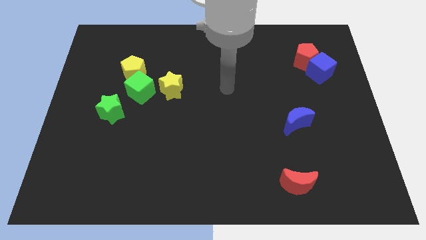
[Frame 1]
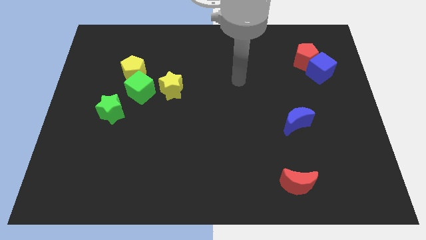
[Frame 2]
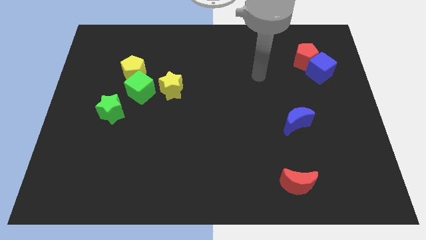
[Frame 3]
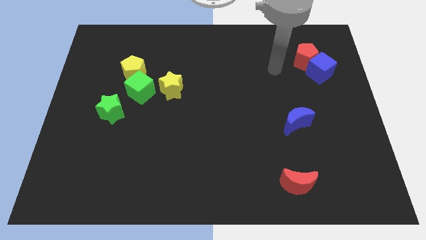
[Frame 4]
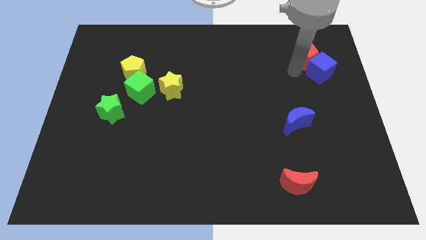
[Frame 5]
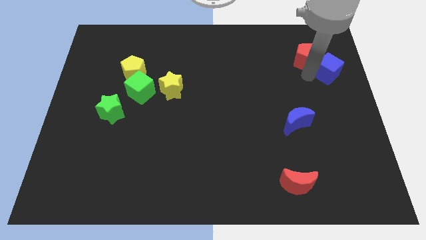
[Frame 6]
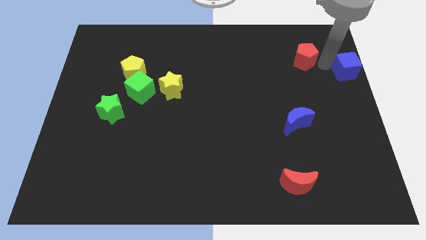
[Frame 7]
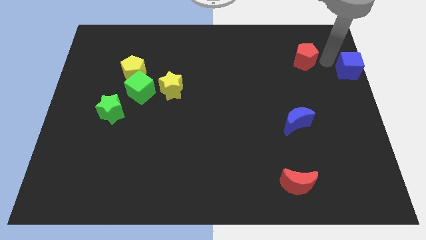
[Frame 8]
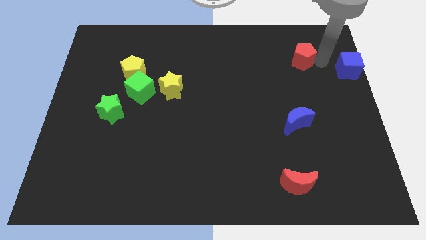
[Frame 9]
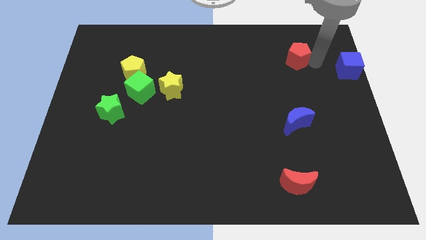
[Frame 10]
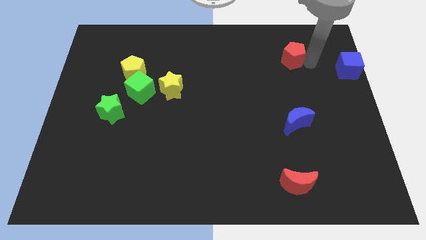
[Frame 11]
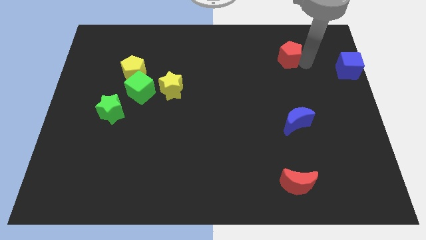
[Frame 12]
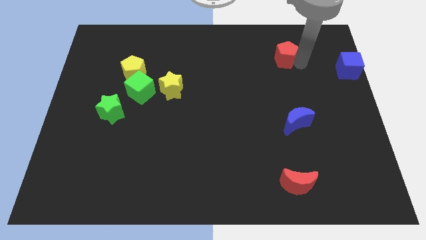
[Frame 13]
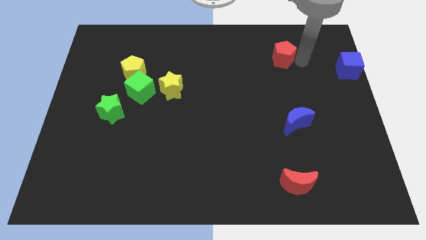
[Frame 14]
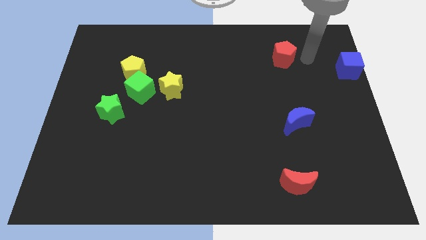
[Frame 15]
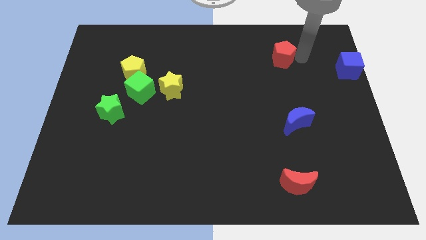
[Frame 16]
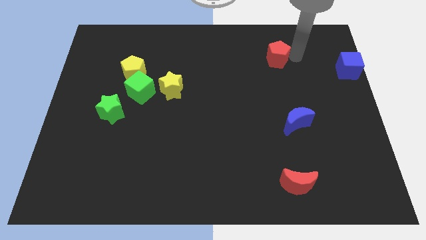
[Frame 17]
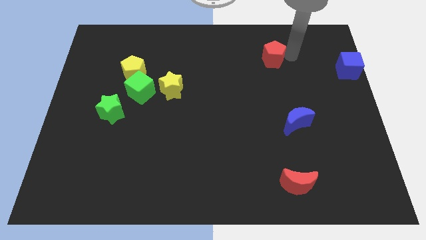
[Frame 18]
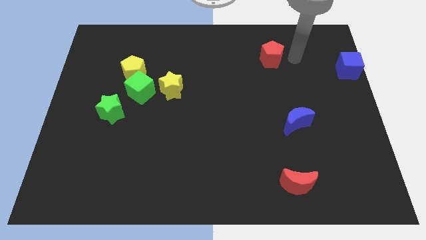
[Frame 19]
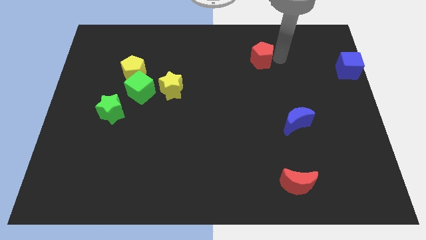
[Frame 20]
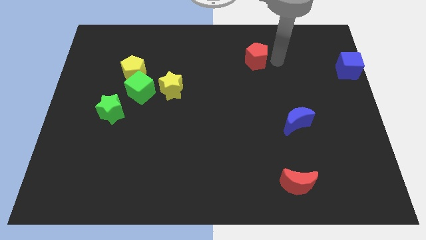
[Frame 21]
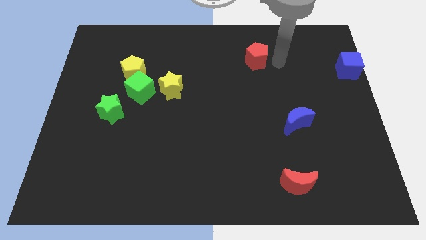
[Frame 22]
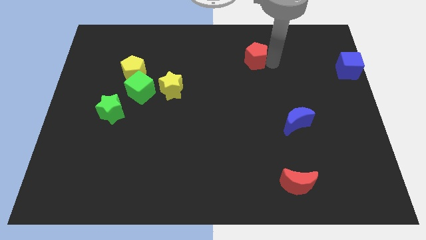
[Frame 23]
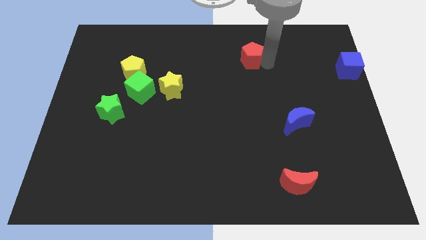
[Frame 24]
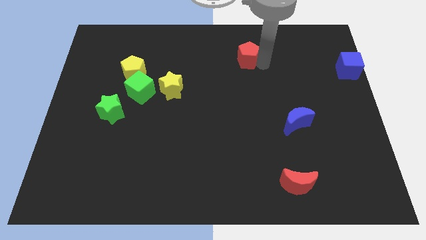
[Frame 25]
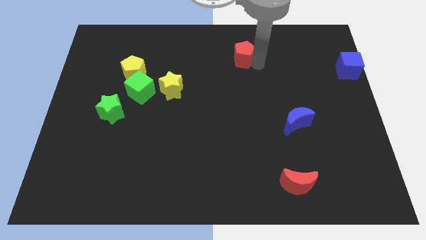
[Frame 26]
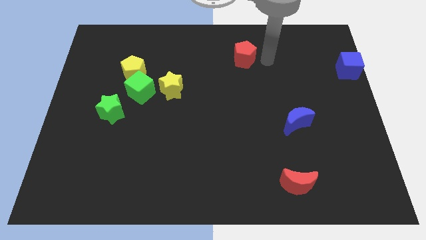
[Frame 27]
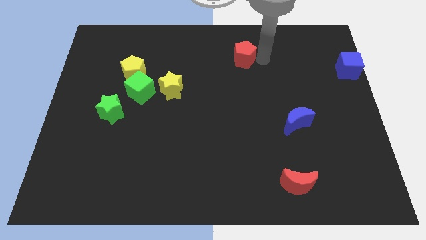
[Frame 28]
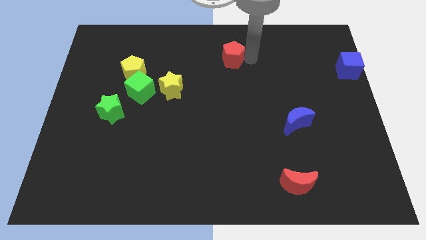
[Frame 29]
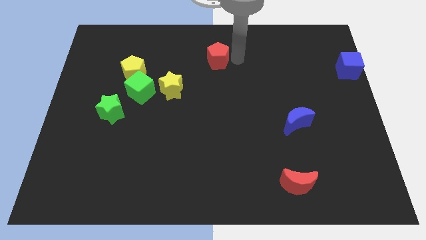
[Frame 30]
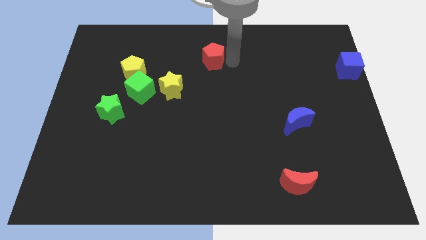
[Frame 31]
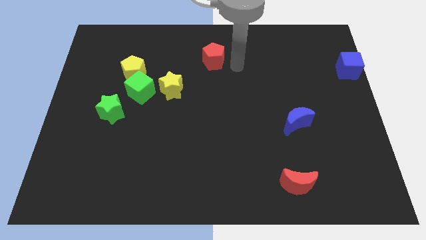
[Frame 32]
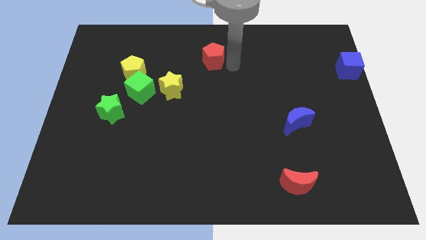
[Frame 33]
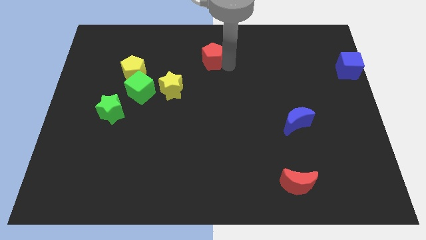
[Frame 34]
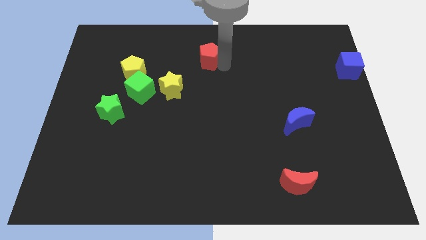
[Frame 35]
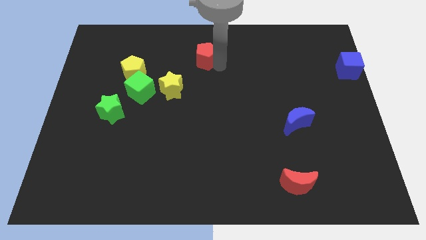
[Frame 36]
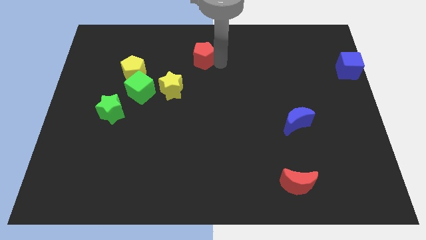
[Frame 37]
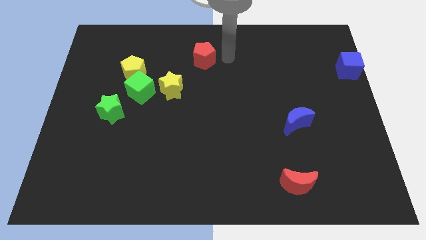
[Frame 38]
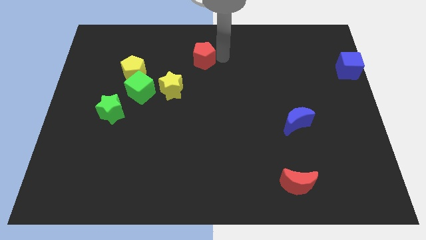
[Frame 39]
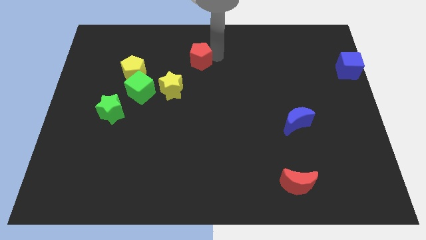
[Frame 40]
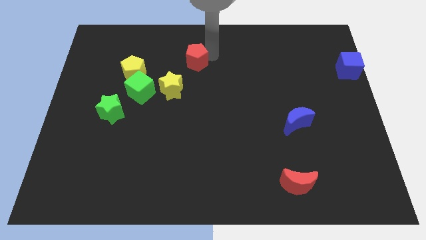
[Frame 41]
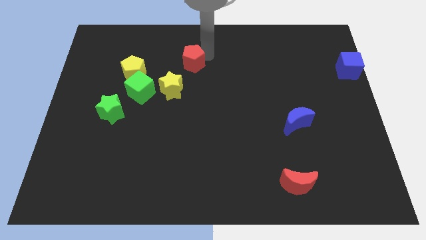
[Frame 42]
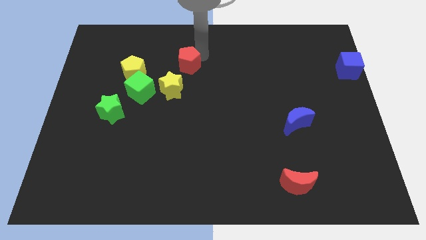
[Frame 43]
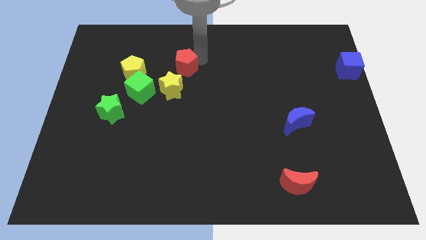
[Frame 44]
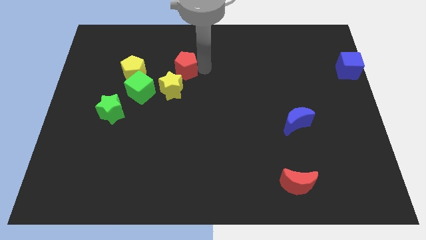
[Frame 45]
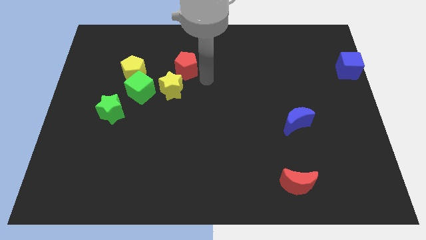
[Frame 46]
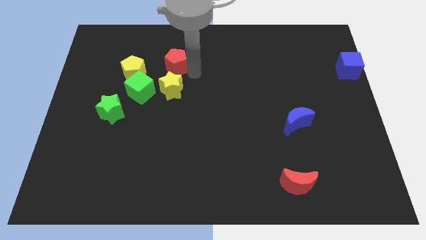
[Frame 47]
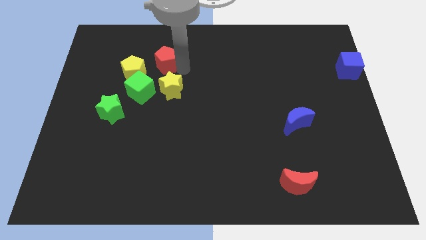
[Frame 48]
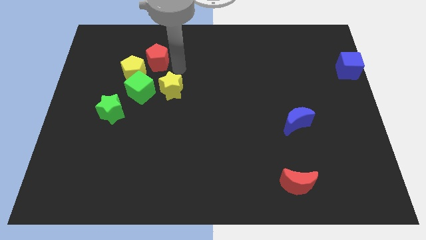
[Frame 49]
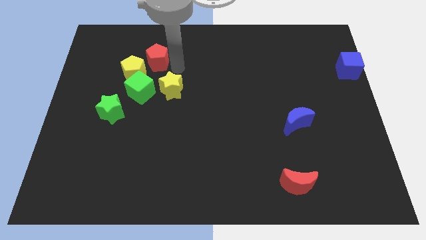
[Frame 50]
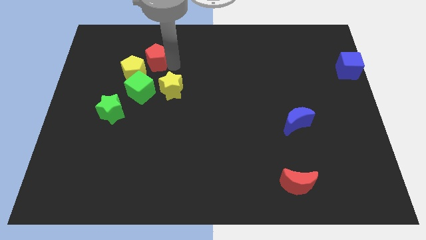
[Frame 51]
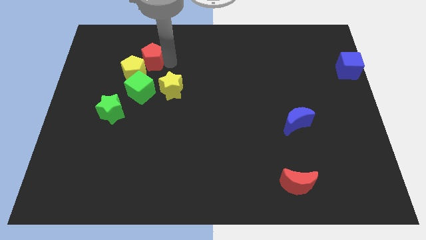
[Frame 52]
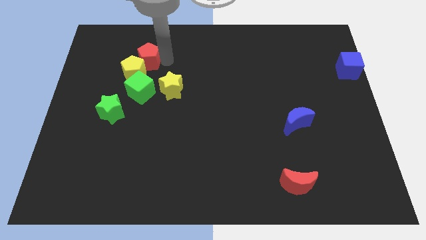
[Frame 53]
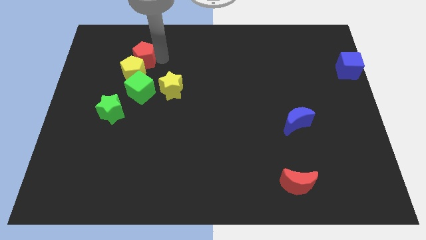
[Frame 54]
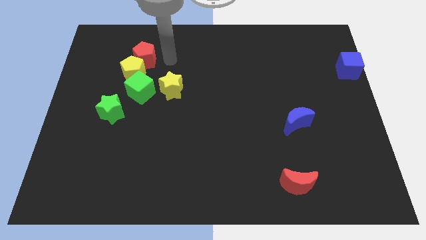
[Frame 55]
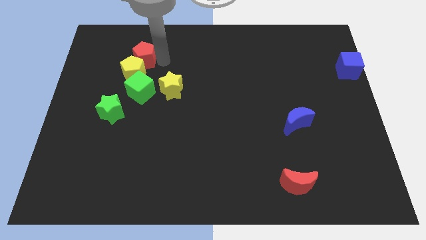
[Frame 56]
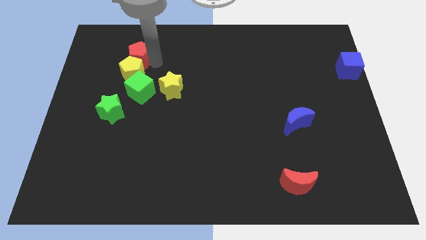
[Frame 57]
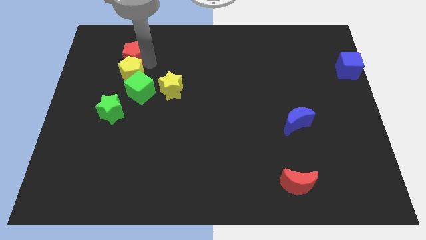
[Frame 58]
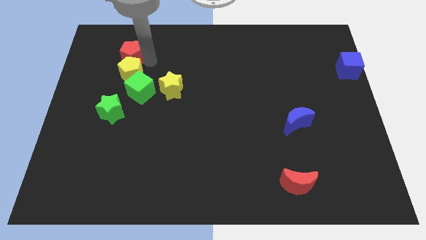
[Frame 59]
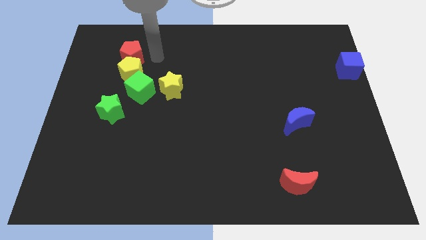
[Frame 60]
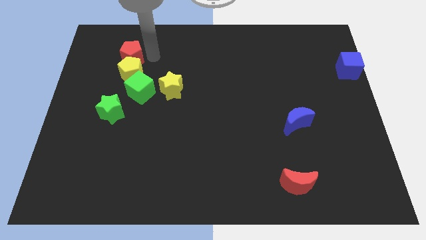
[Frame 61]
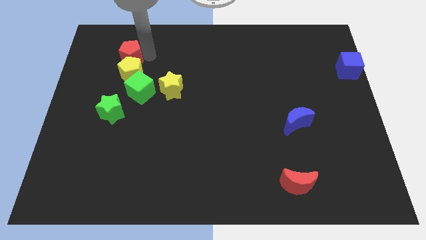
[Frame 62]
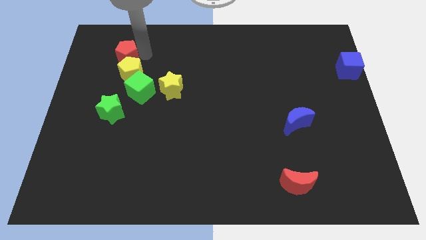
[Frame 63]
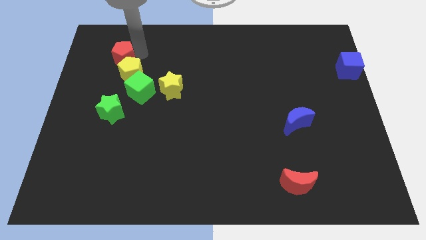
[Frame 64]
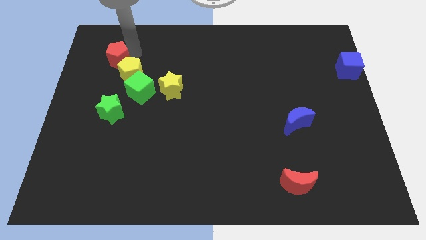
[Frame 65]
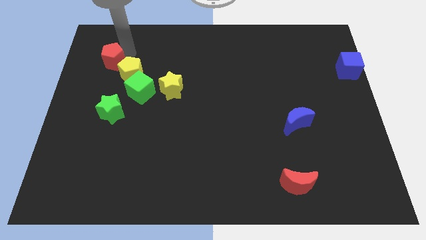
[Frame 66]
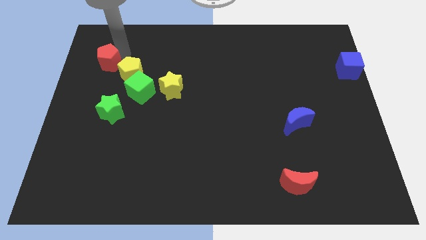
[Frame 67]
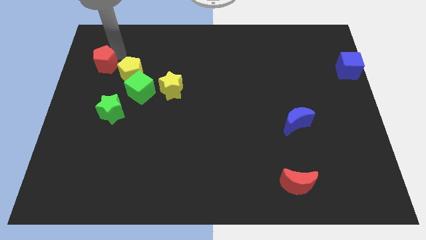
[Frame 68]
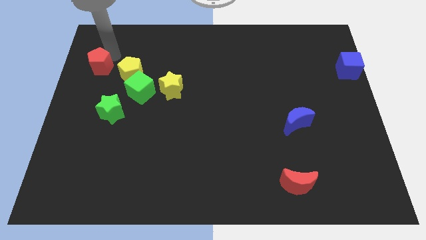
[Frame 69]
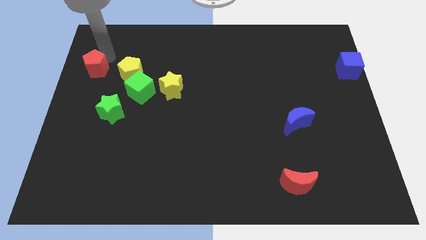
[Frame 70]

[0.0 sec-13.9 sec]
put the red pentagon to the center left
